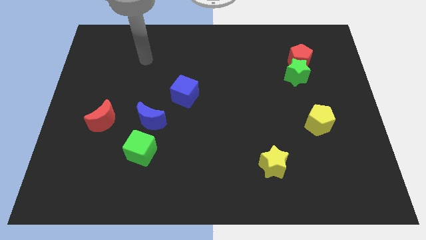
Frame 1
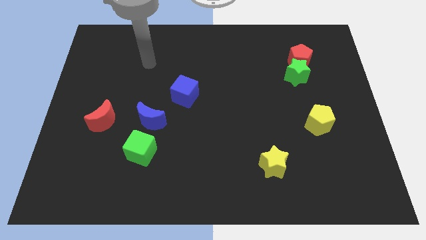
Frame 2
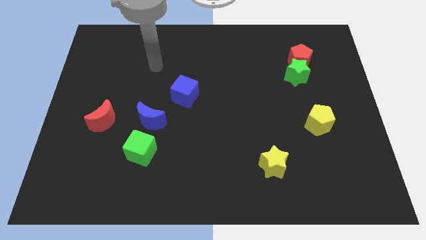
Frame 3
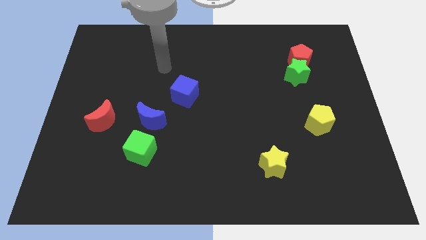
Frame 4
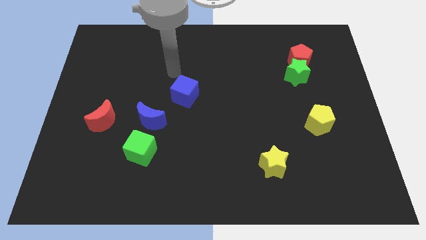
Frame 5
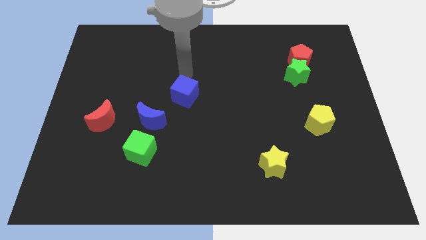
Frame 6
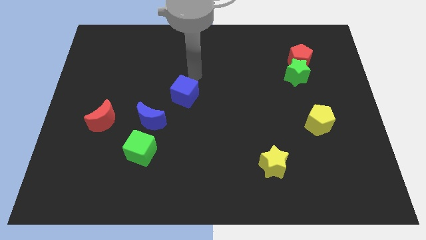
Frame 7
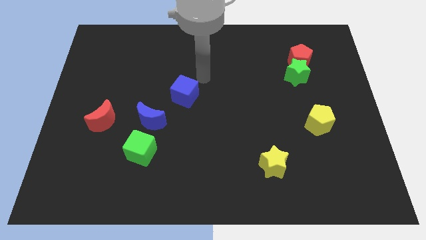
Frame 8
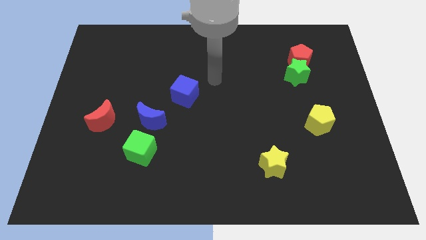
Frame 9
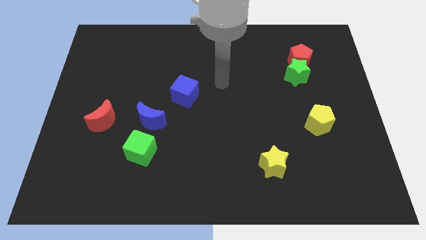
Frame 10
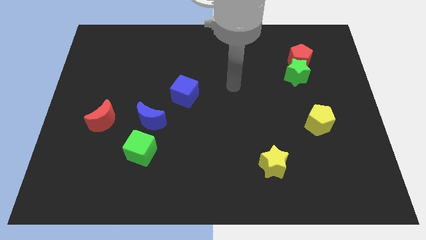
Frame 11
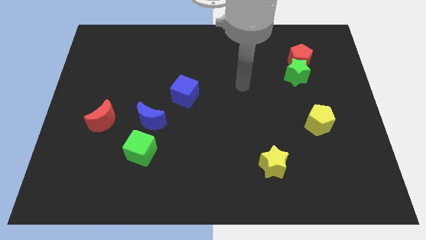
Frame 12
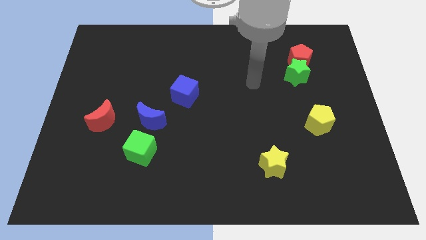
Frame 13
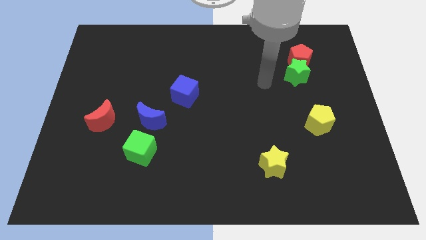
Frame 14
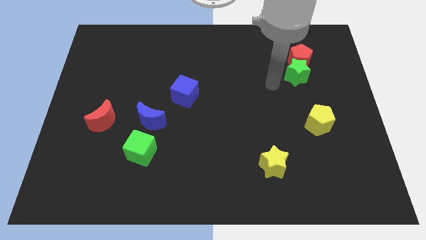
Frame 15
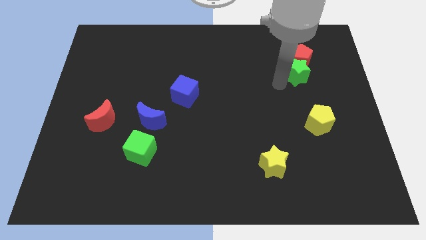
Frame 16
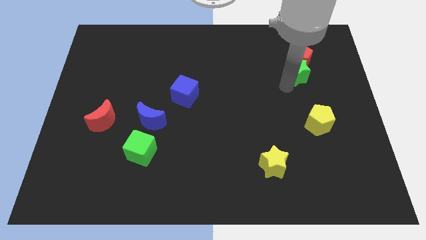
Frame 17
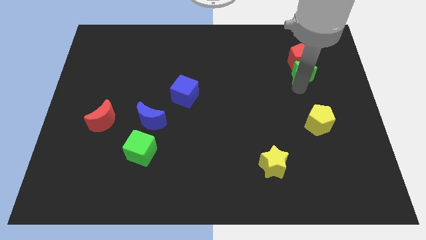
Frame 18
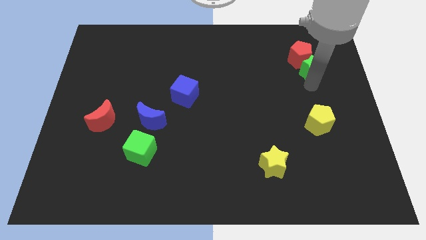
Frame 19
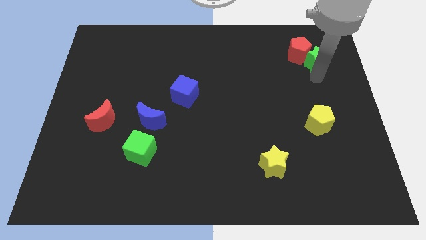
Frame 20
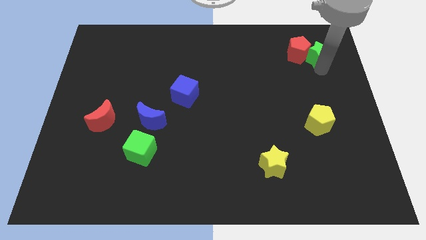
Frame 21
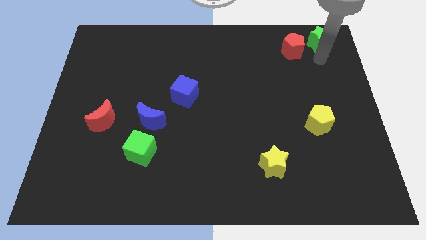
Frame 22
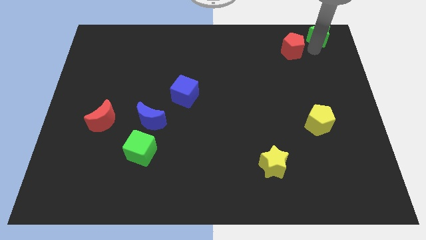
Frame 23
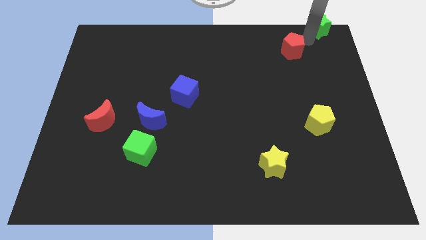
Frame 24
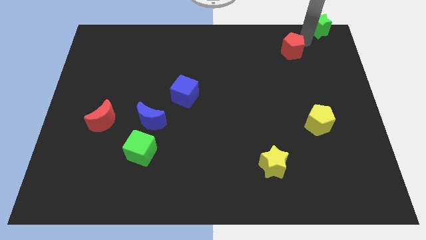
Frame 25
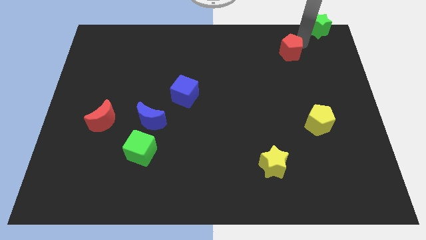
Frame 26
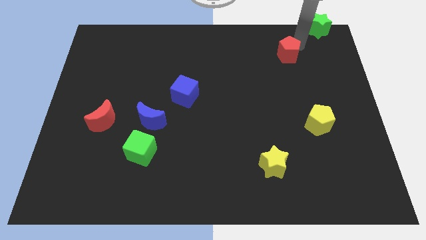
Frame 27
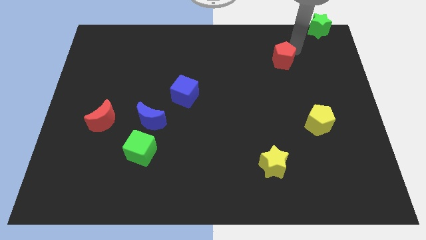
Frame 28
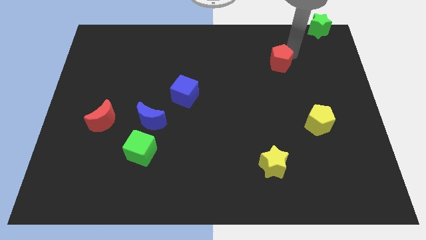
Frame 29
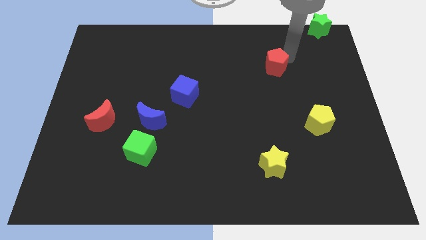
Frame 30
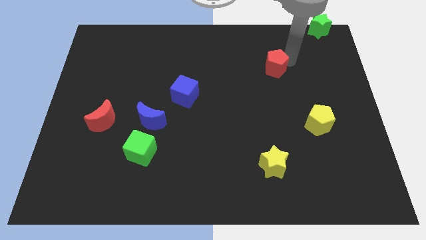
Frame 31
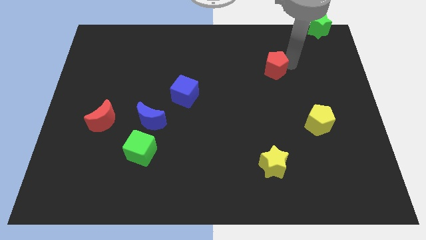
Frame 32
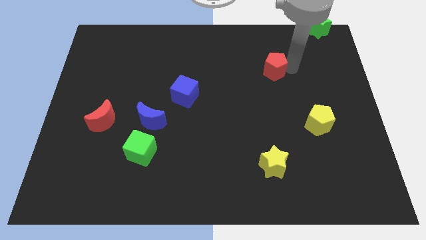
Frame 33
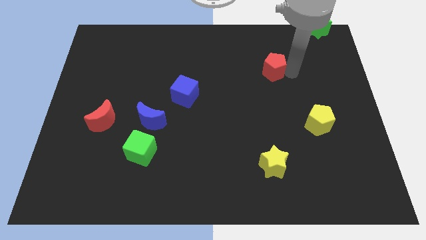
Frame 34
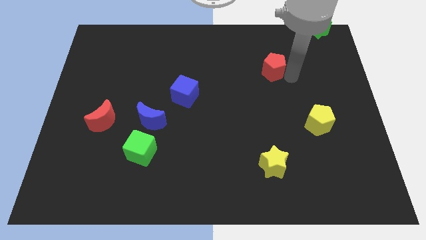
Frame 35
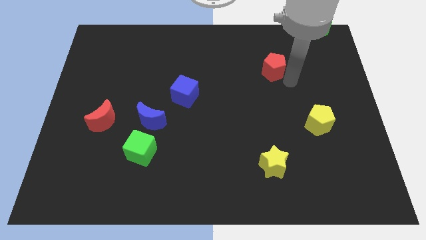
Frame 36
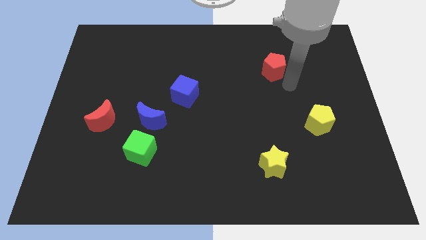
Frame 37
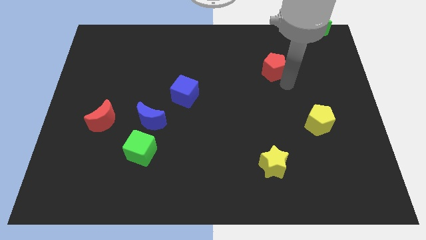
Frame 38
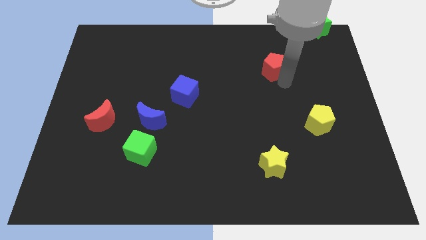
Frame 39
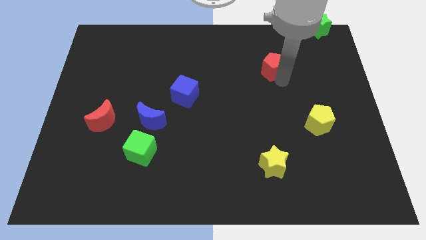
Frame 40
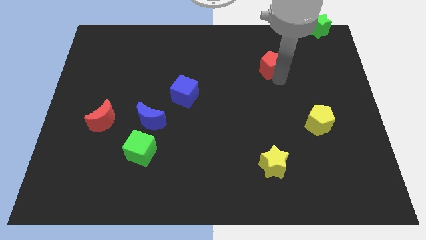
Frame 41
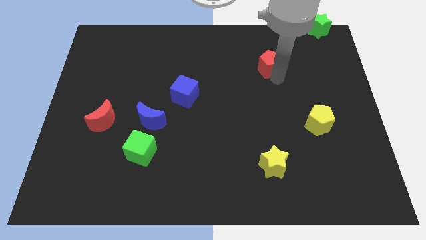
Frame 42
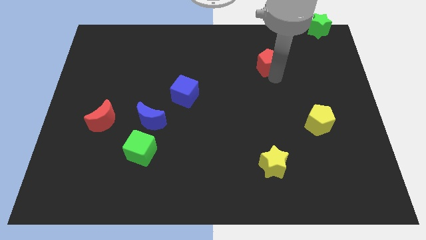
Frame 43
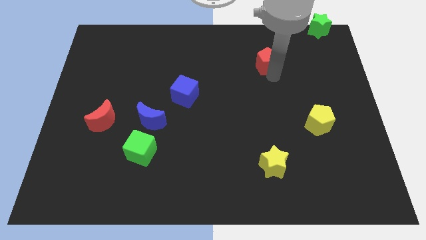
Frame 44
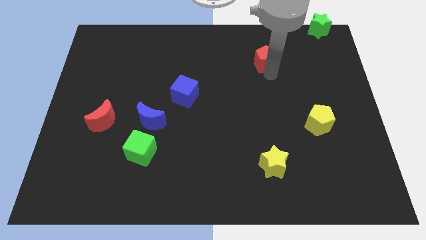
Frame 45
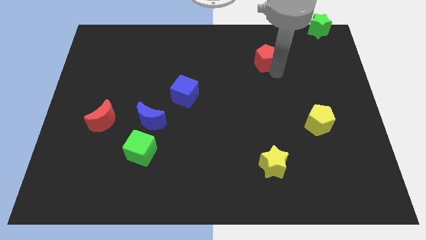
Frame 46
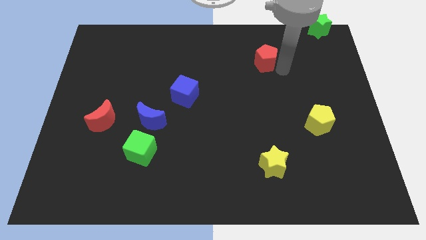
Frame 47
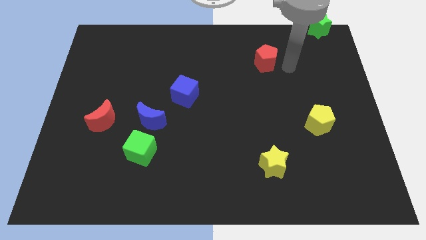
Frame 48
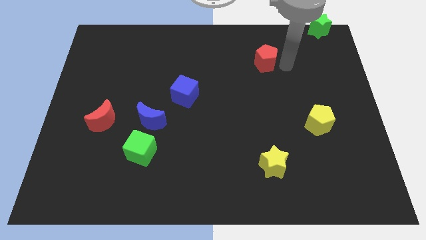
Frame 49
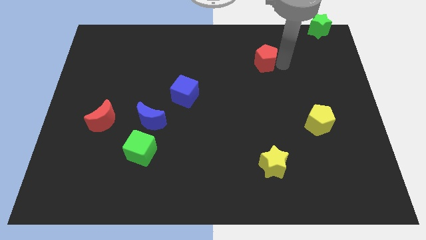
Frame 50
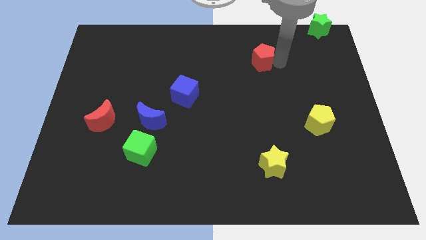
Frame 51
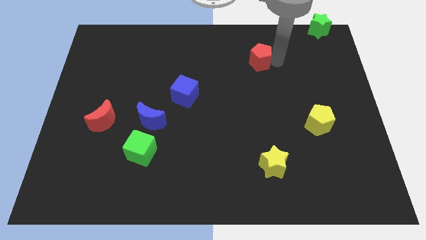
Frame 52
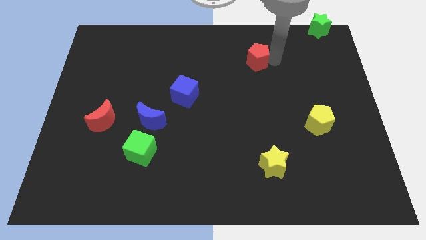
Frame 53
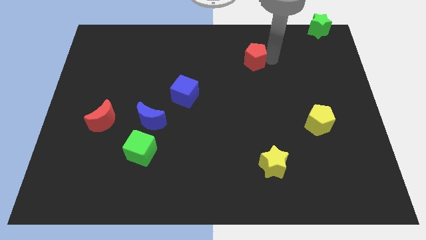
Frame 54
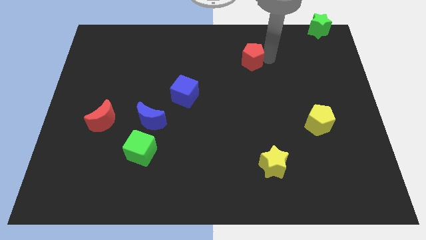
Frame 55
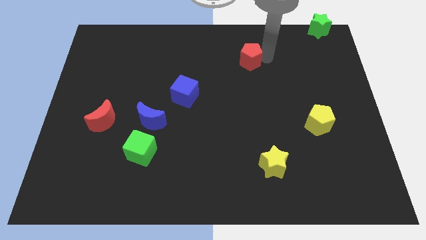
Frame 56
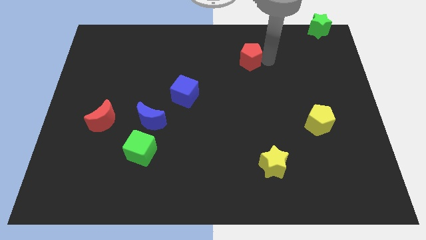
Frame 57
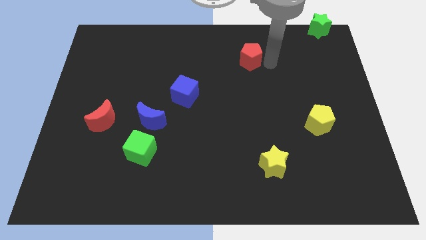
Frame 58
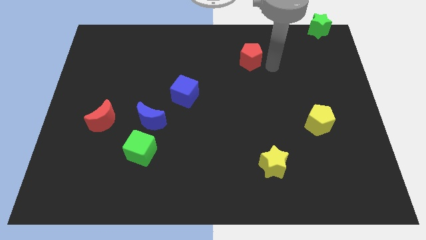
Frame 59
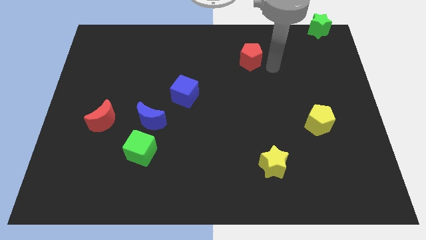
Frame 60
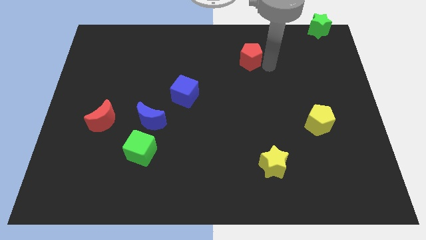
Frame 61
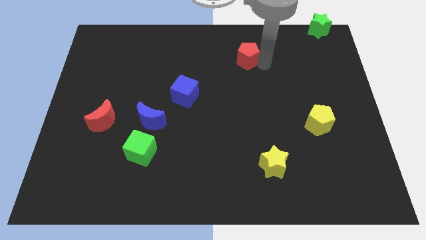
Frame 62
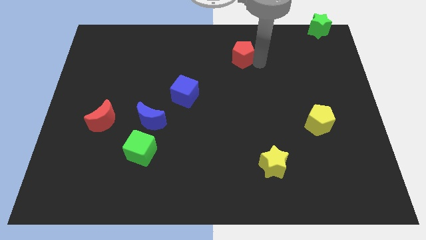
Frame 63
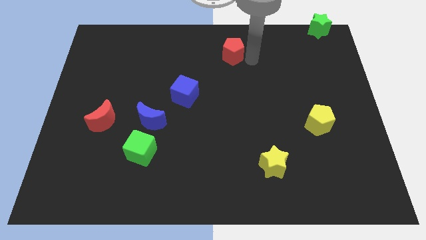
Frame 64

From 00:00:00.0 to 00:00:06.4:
push the red pentagon to the towards your base

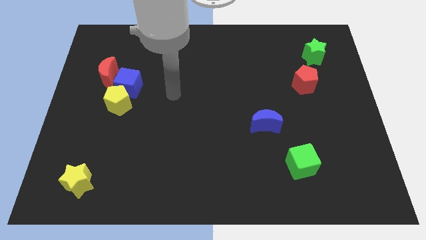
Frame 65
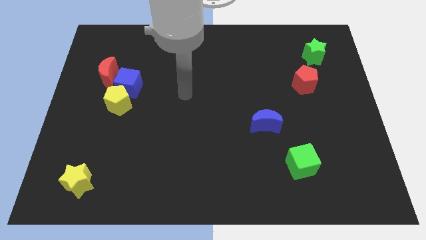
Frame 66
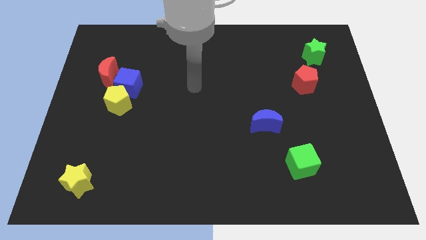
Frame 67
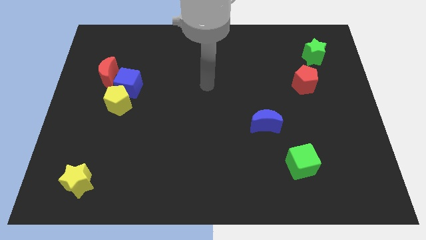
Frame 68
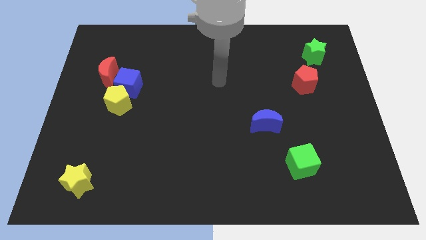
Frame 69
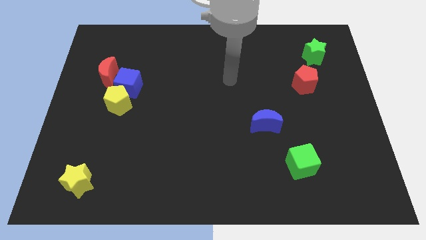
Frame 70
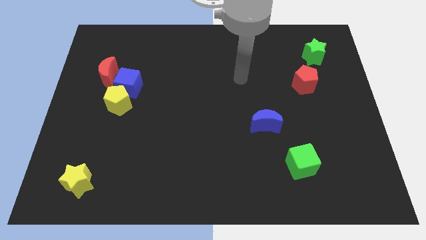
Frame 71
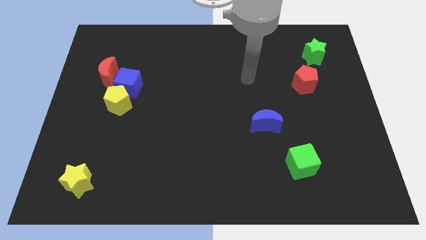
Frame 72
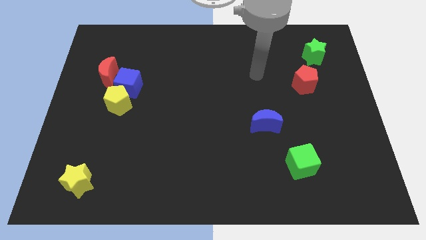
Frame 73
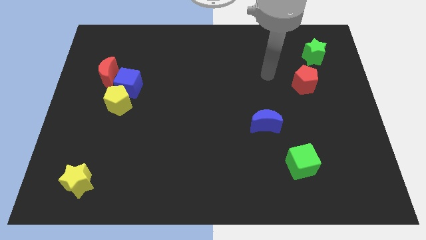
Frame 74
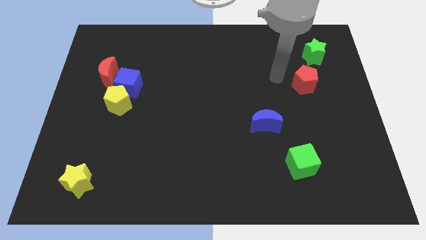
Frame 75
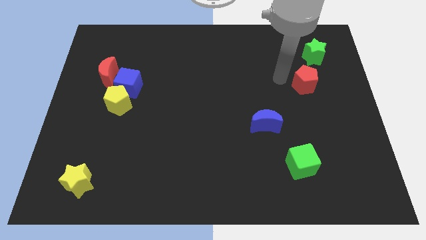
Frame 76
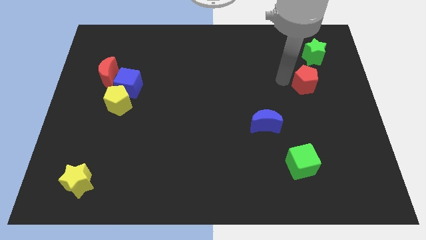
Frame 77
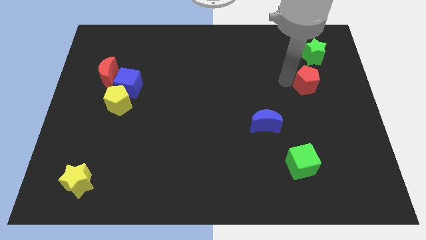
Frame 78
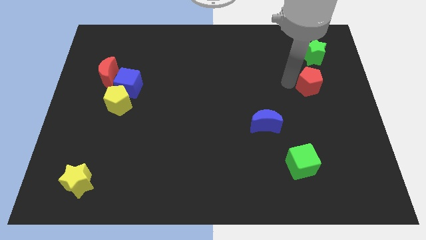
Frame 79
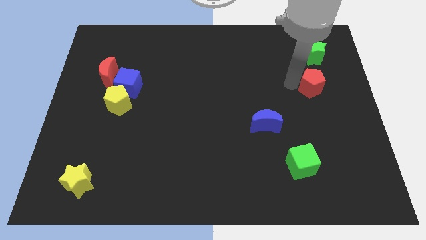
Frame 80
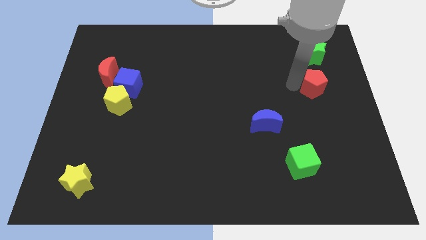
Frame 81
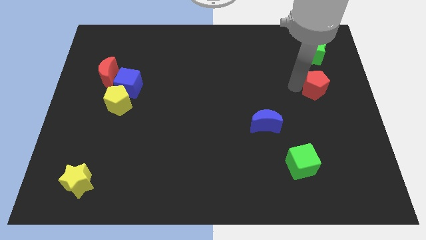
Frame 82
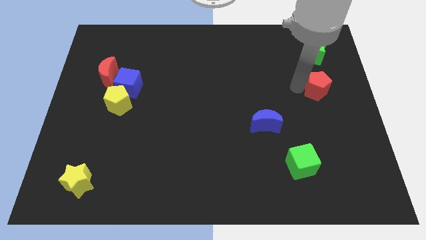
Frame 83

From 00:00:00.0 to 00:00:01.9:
put the red pentagon to the right side
